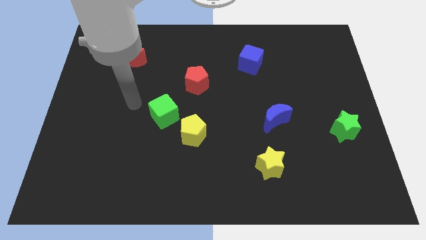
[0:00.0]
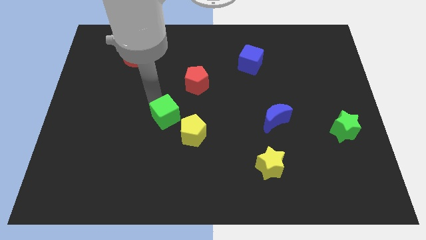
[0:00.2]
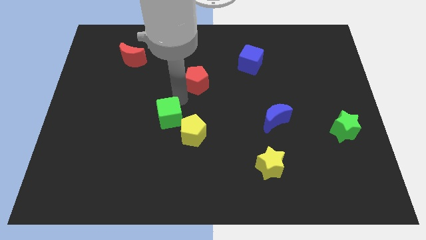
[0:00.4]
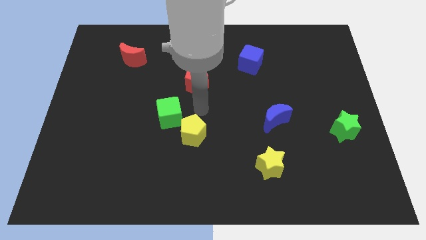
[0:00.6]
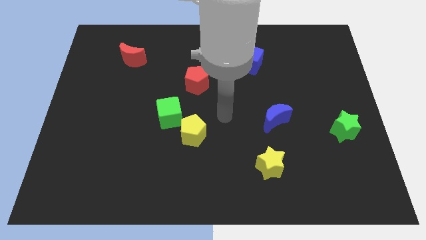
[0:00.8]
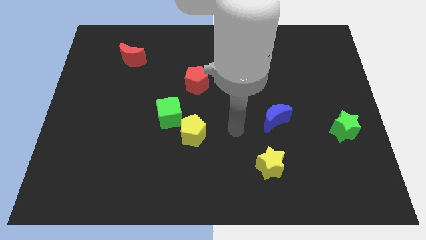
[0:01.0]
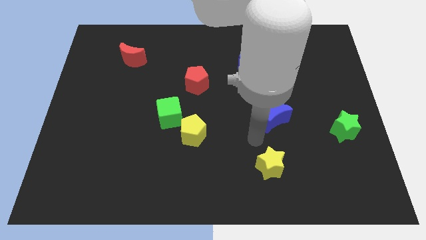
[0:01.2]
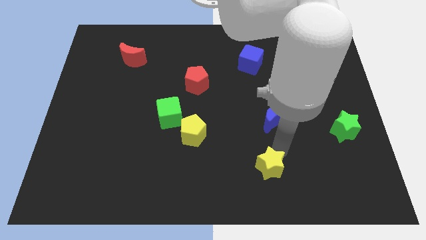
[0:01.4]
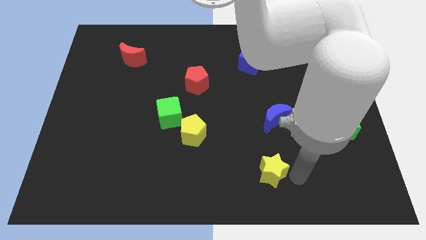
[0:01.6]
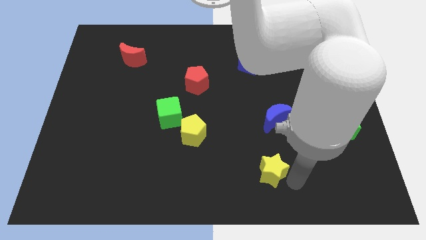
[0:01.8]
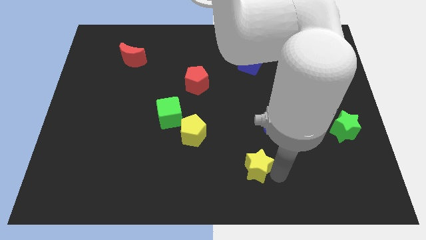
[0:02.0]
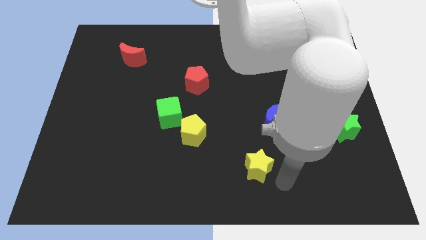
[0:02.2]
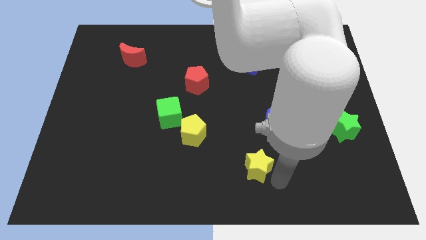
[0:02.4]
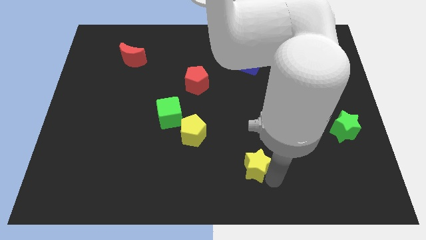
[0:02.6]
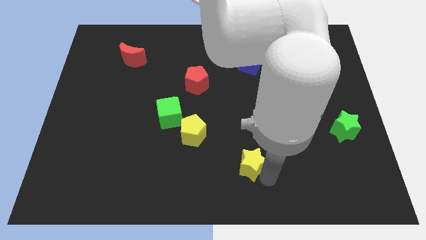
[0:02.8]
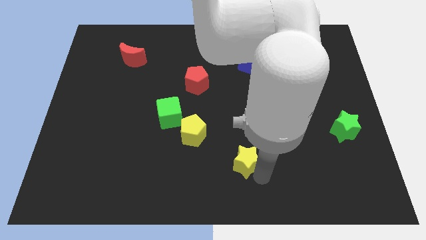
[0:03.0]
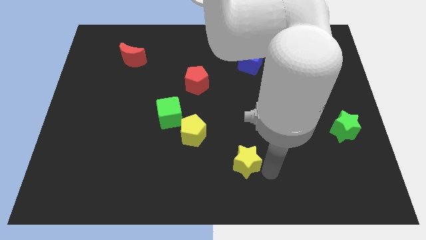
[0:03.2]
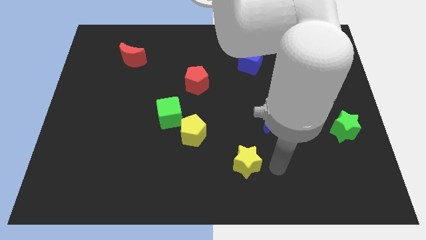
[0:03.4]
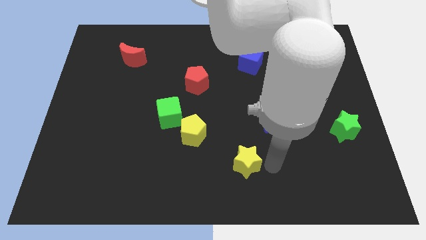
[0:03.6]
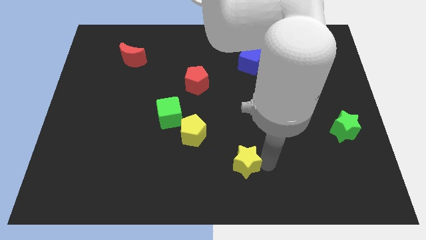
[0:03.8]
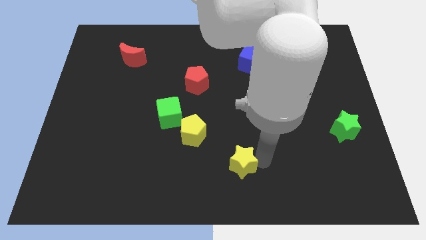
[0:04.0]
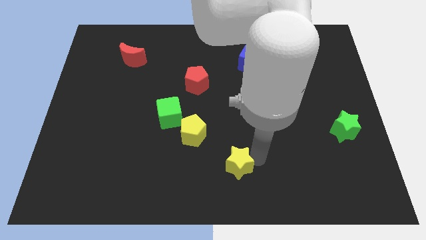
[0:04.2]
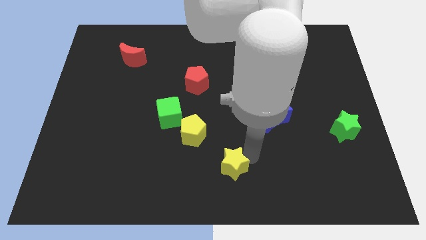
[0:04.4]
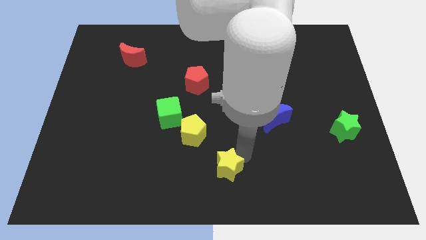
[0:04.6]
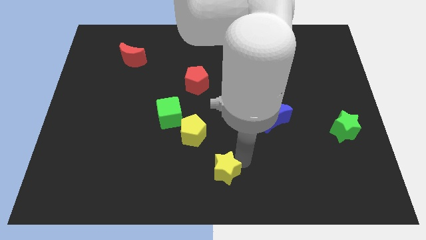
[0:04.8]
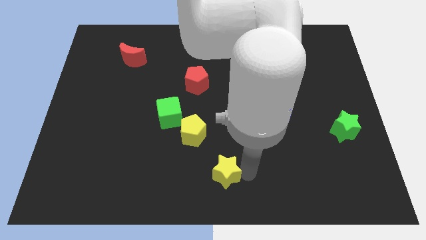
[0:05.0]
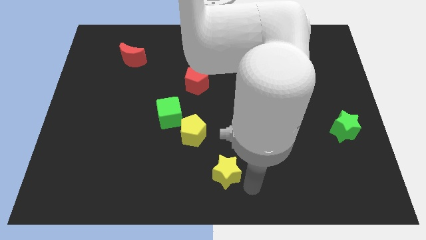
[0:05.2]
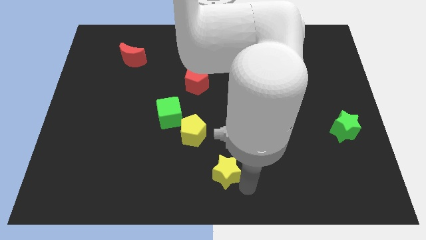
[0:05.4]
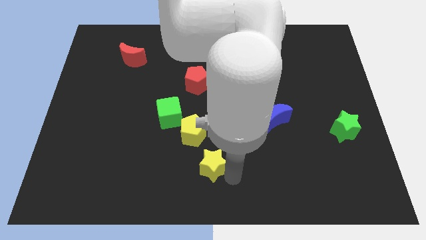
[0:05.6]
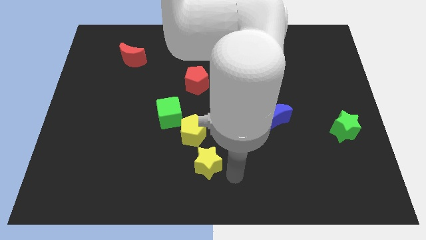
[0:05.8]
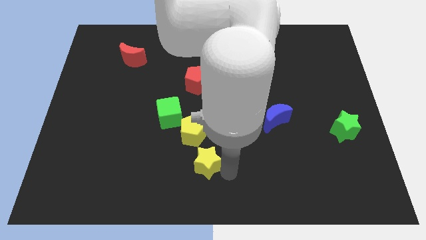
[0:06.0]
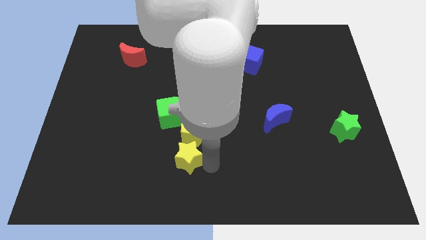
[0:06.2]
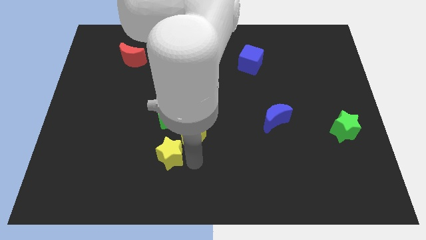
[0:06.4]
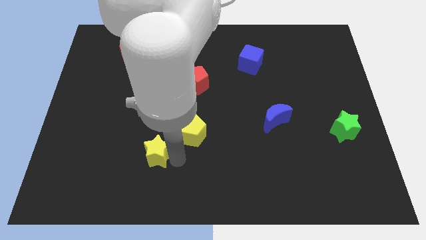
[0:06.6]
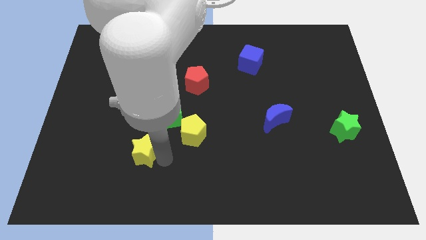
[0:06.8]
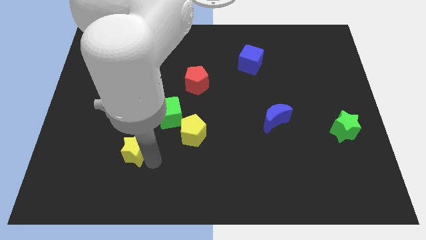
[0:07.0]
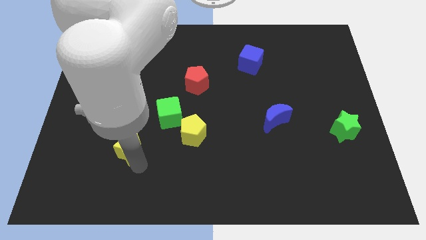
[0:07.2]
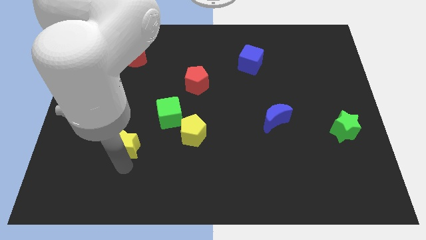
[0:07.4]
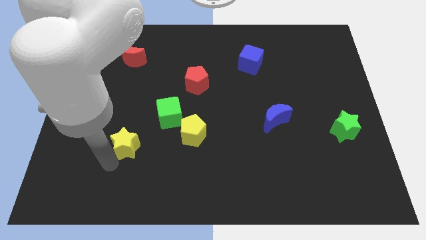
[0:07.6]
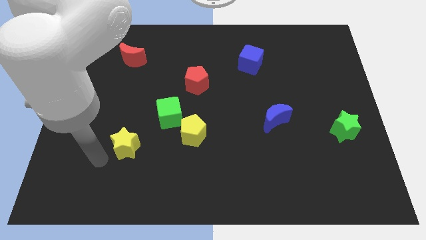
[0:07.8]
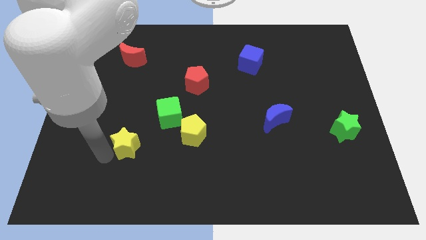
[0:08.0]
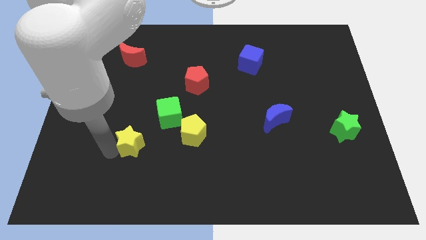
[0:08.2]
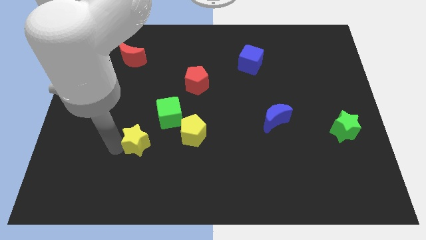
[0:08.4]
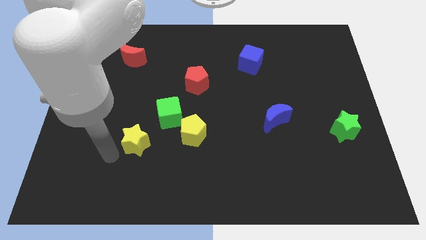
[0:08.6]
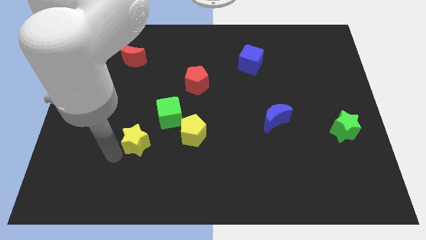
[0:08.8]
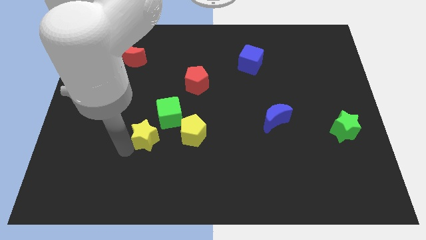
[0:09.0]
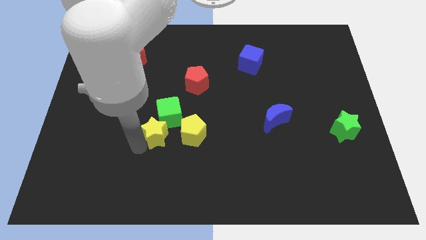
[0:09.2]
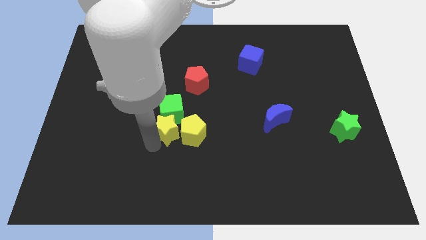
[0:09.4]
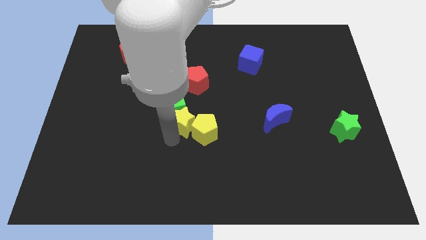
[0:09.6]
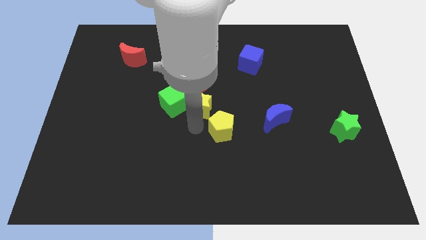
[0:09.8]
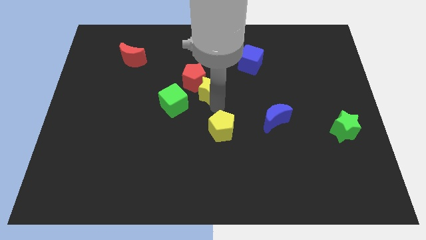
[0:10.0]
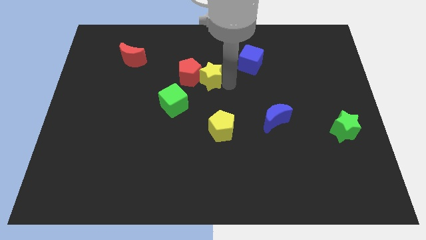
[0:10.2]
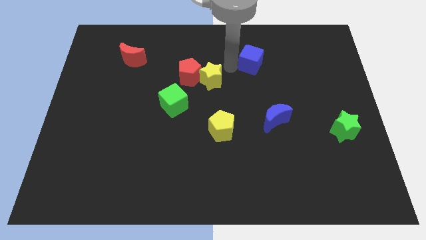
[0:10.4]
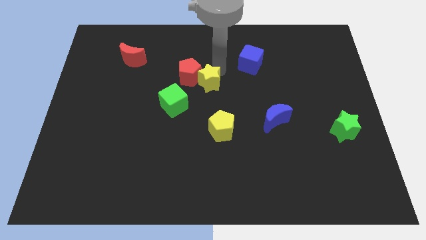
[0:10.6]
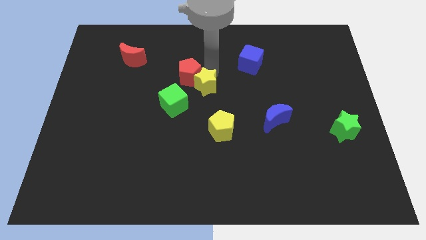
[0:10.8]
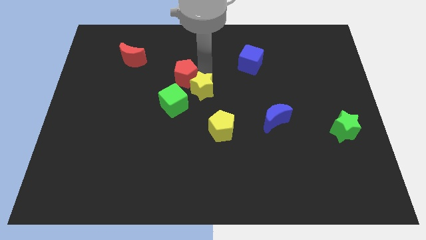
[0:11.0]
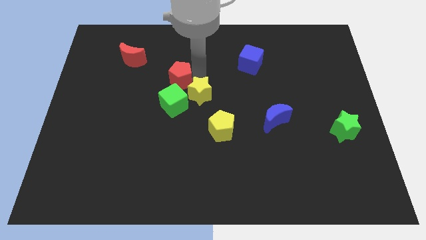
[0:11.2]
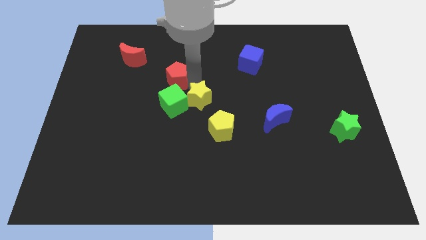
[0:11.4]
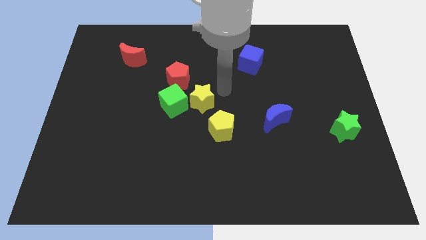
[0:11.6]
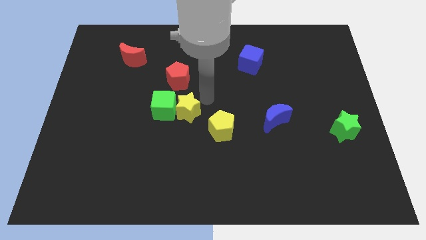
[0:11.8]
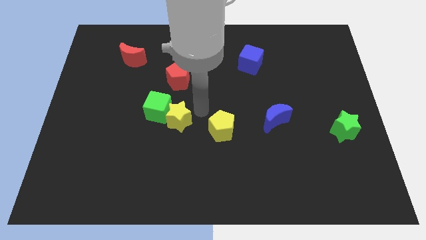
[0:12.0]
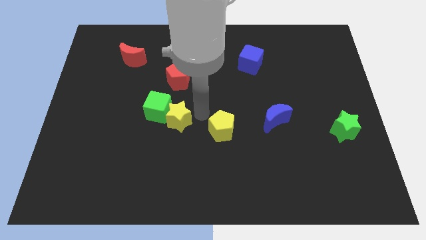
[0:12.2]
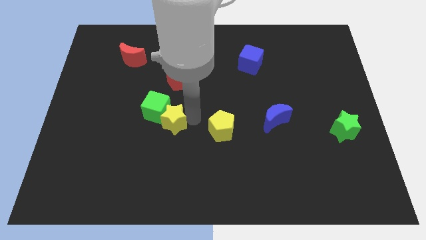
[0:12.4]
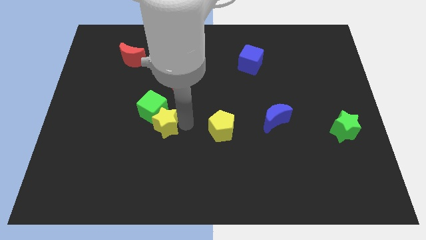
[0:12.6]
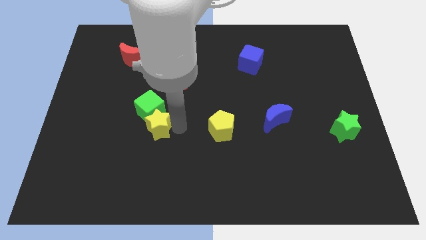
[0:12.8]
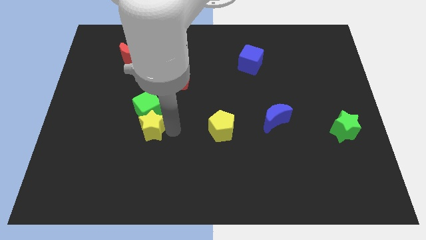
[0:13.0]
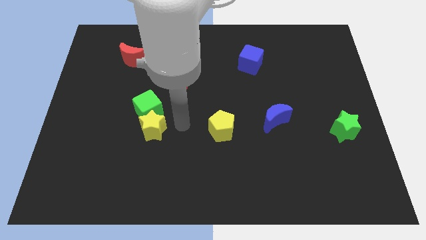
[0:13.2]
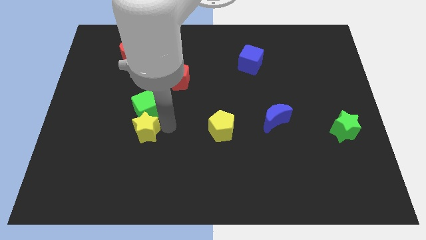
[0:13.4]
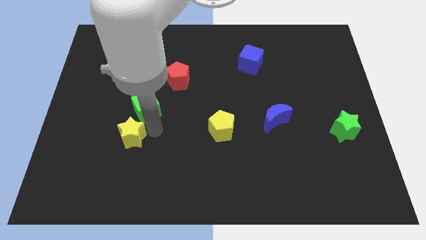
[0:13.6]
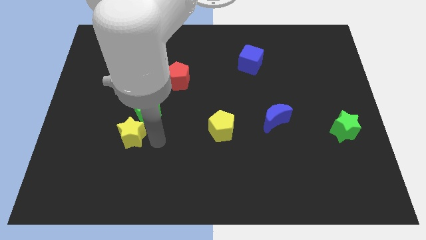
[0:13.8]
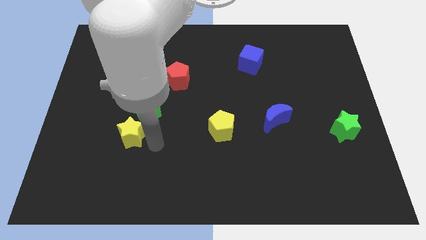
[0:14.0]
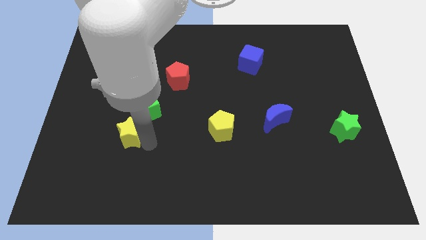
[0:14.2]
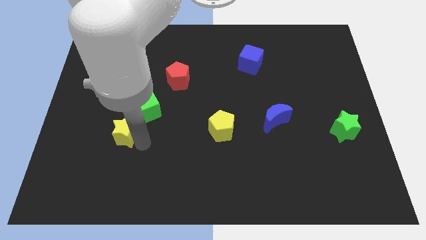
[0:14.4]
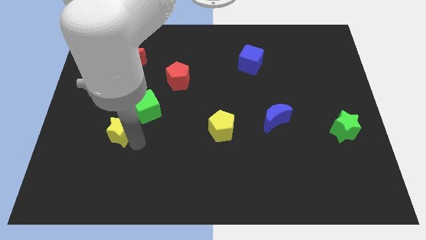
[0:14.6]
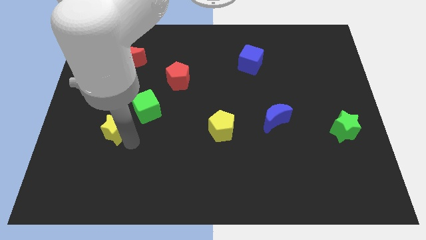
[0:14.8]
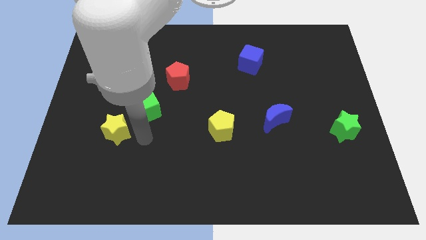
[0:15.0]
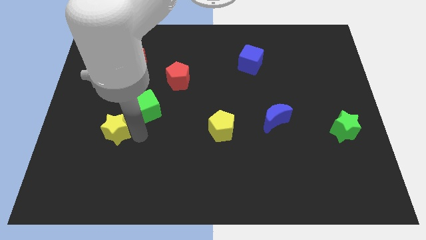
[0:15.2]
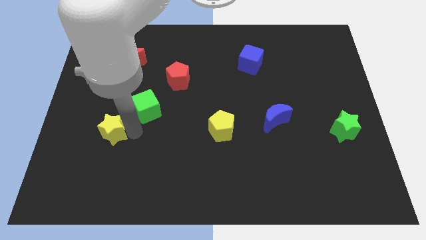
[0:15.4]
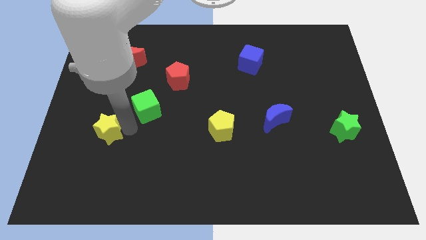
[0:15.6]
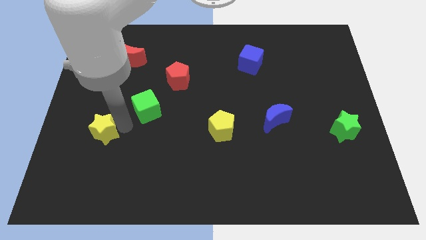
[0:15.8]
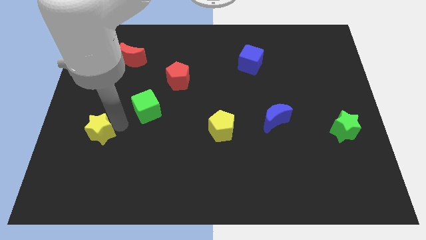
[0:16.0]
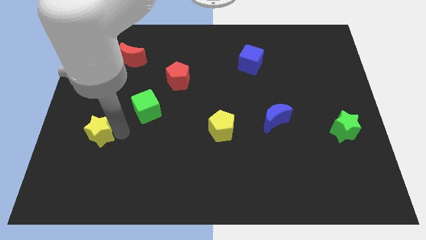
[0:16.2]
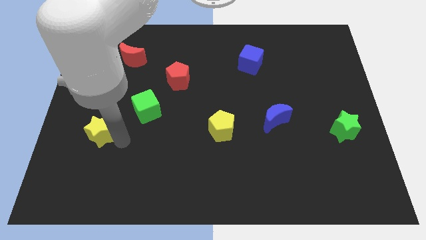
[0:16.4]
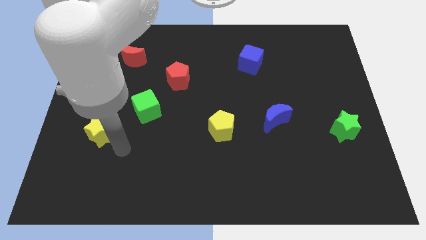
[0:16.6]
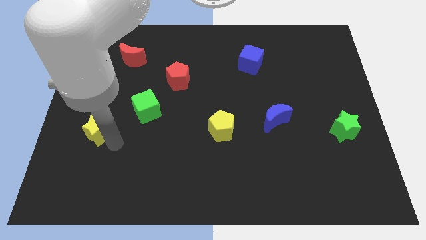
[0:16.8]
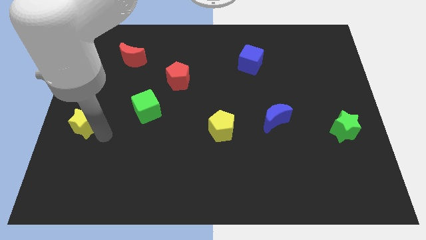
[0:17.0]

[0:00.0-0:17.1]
put the yellow star to the left side of the board
